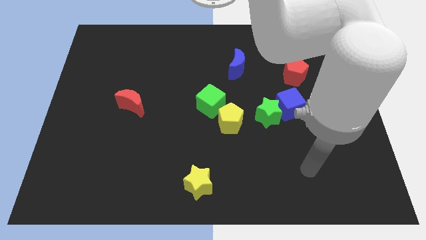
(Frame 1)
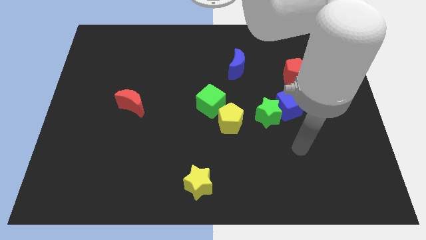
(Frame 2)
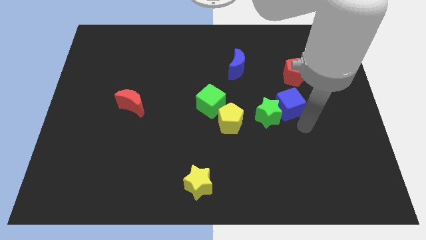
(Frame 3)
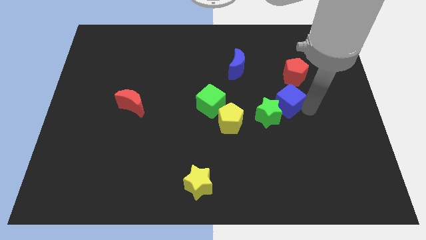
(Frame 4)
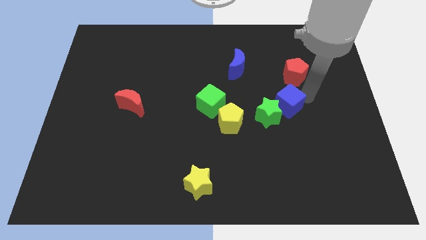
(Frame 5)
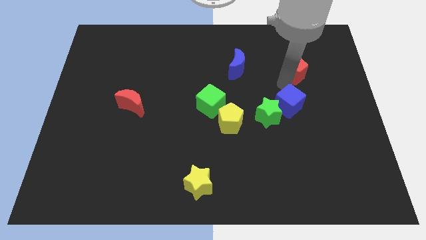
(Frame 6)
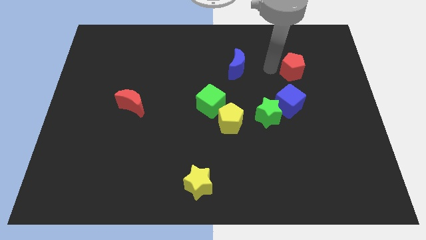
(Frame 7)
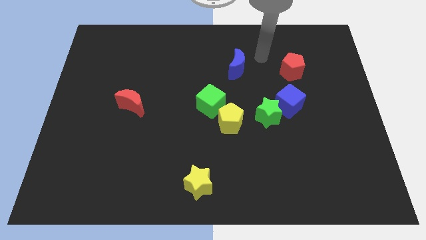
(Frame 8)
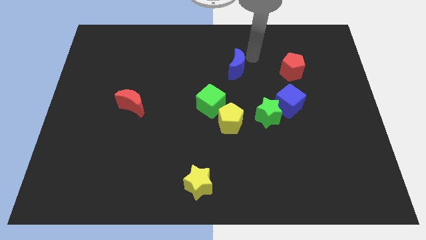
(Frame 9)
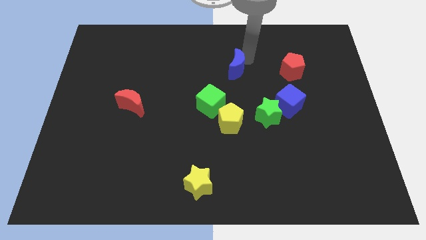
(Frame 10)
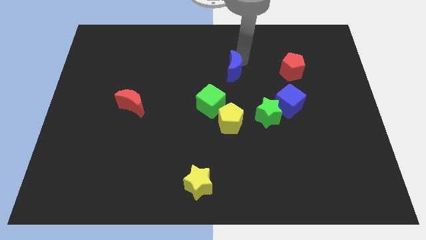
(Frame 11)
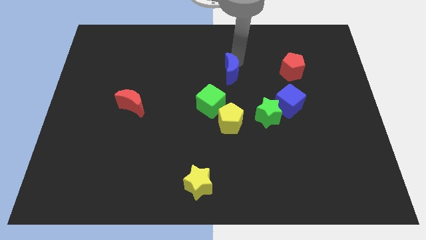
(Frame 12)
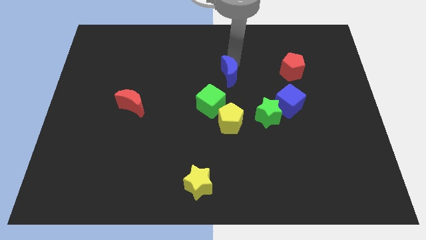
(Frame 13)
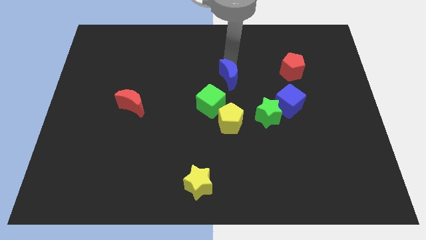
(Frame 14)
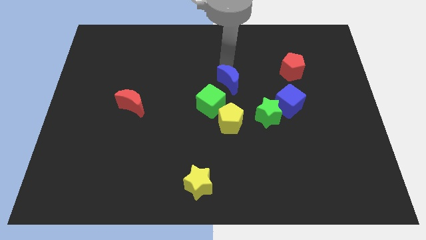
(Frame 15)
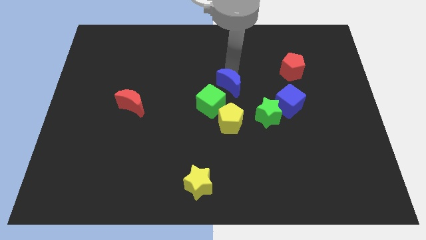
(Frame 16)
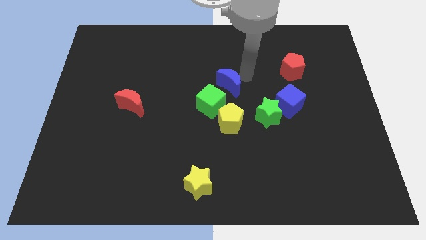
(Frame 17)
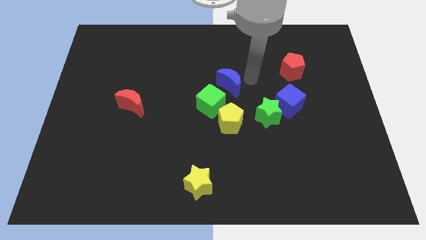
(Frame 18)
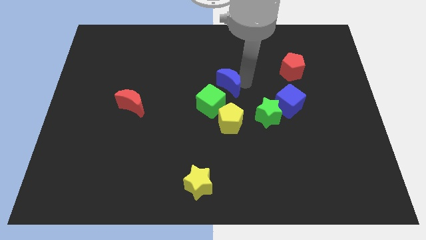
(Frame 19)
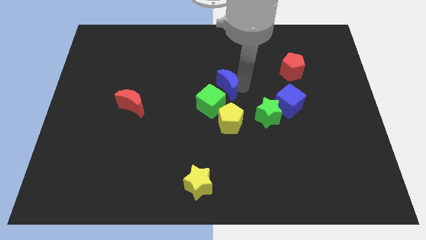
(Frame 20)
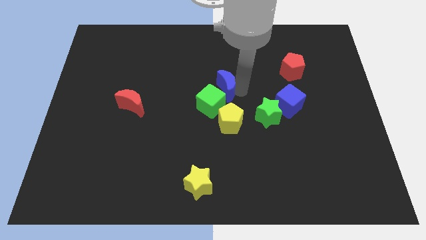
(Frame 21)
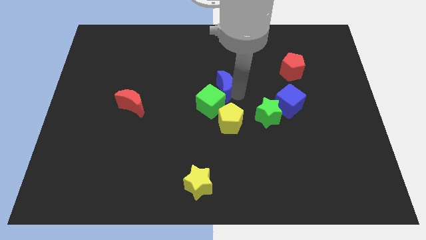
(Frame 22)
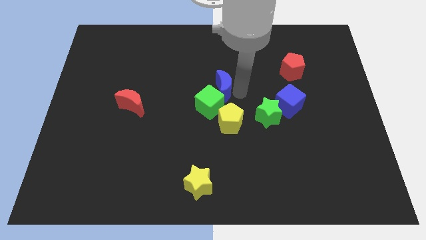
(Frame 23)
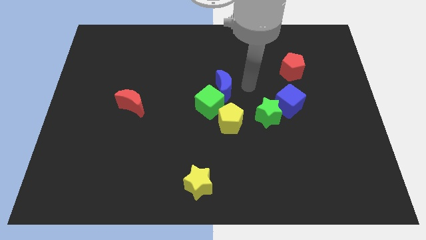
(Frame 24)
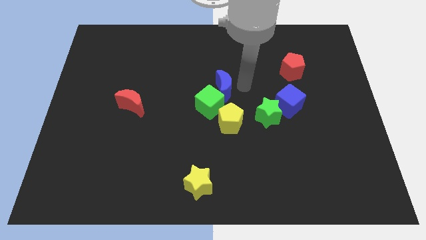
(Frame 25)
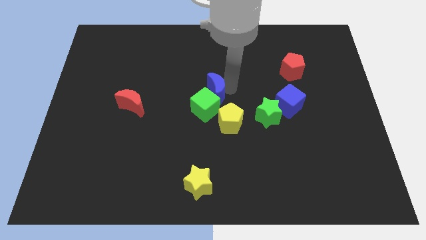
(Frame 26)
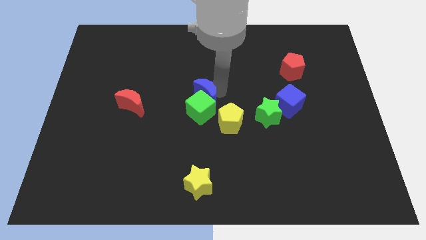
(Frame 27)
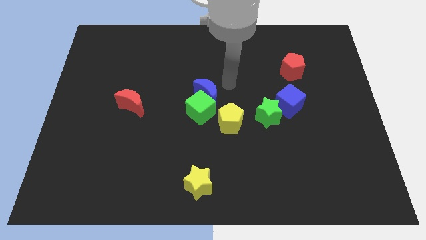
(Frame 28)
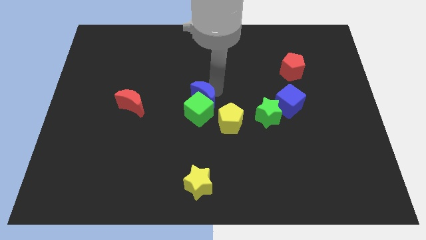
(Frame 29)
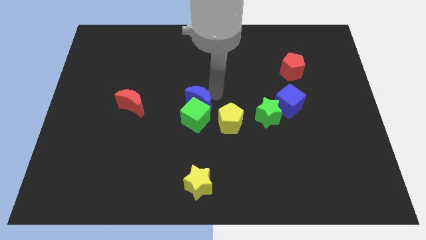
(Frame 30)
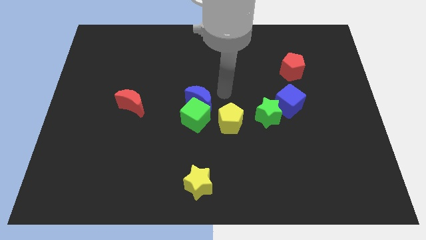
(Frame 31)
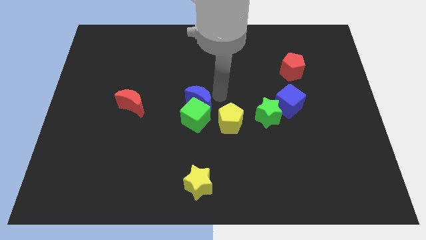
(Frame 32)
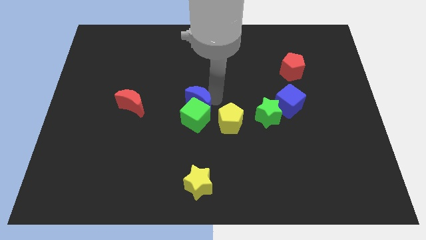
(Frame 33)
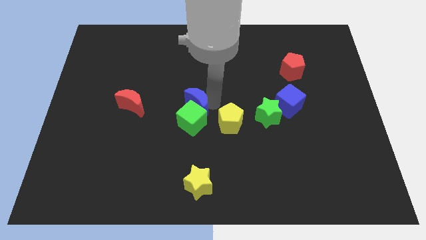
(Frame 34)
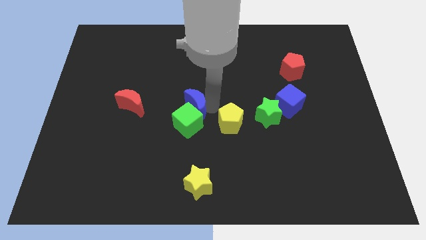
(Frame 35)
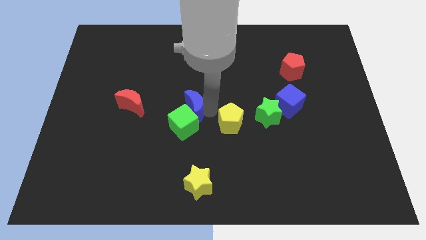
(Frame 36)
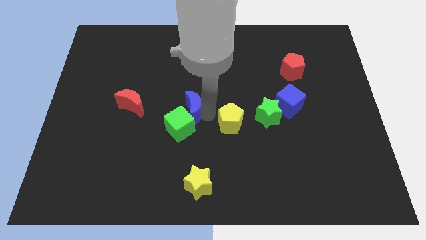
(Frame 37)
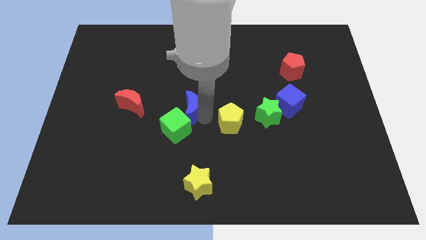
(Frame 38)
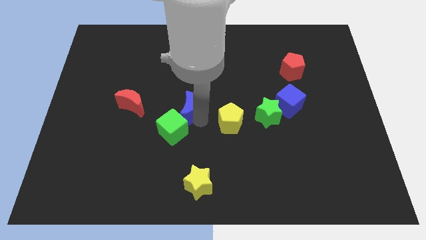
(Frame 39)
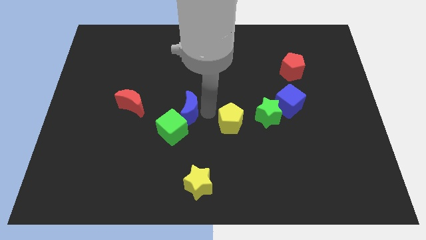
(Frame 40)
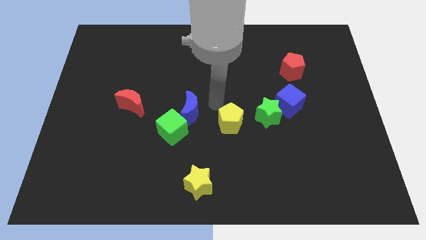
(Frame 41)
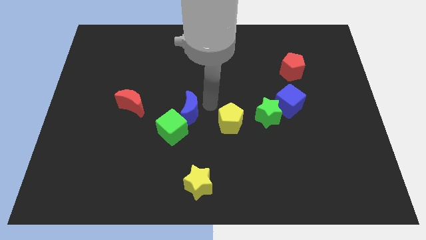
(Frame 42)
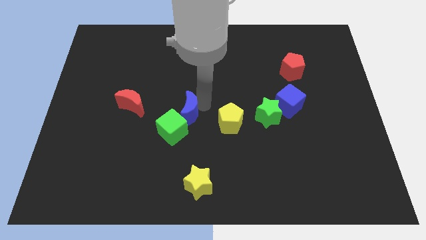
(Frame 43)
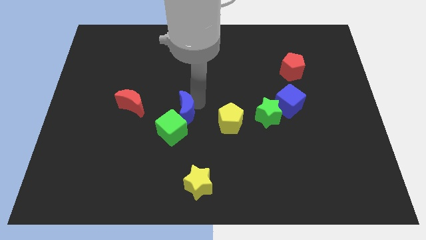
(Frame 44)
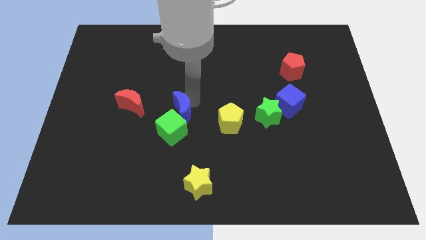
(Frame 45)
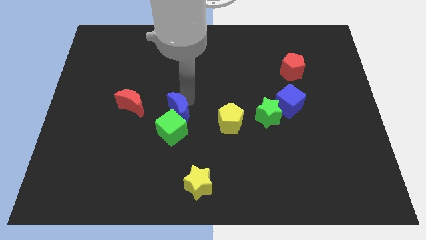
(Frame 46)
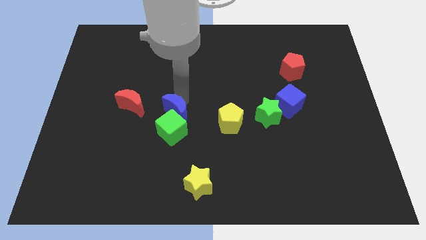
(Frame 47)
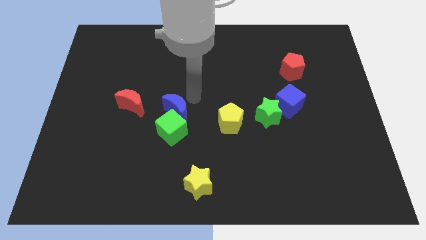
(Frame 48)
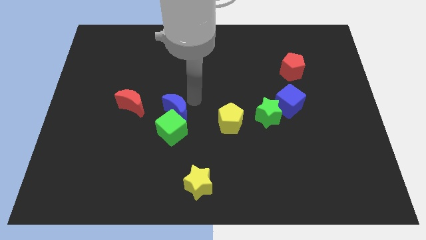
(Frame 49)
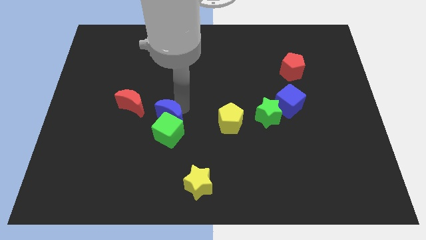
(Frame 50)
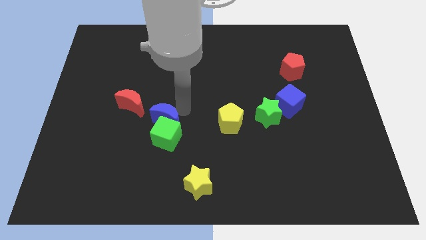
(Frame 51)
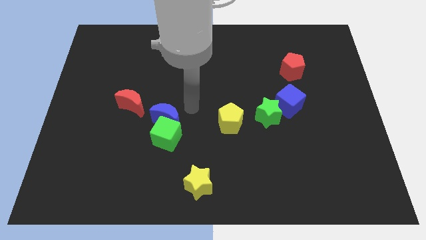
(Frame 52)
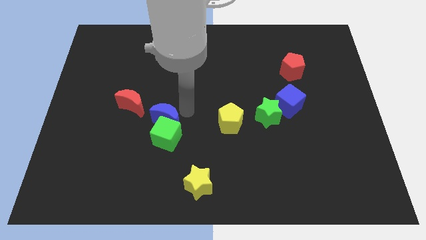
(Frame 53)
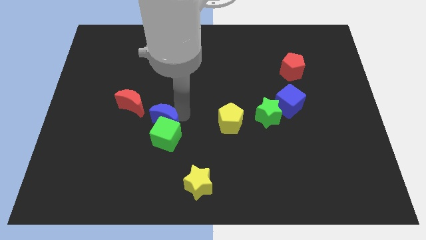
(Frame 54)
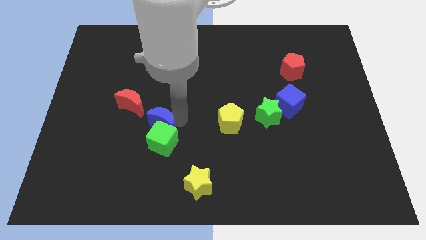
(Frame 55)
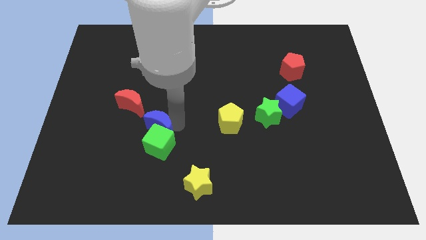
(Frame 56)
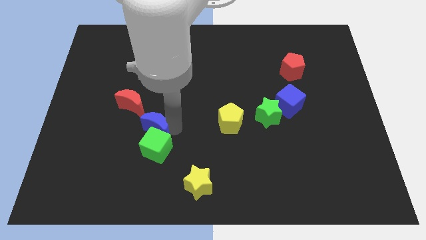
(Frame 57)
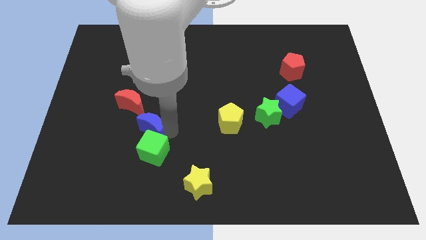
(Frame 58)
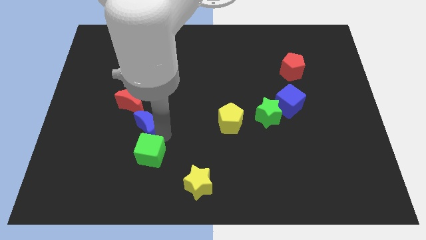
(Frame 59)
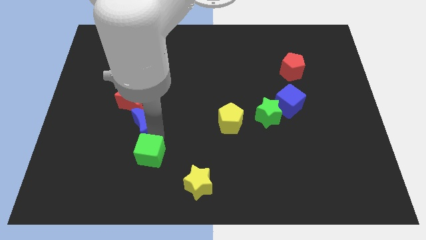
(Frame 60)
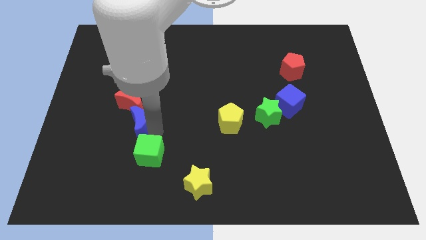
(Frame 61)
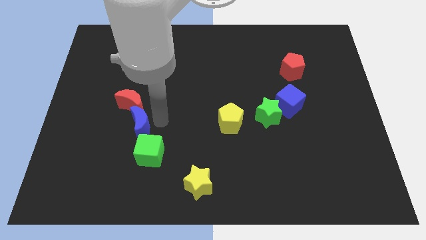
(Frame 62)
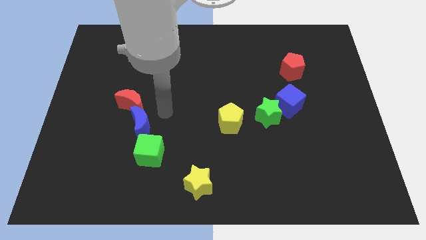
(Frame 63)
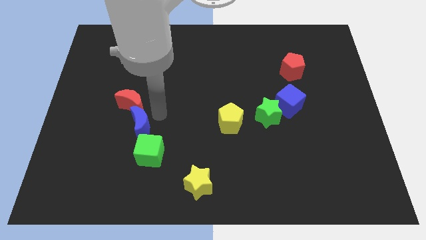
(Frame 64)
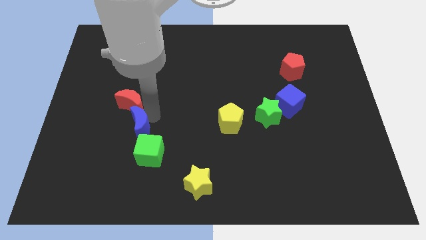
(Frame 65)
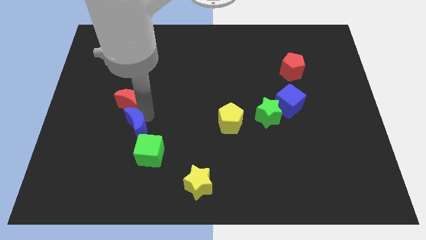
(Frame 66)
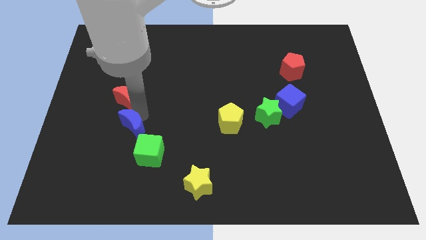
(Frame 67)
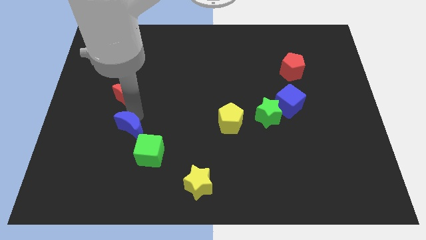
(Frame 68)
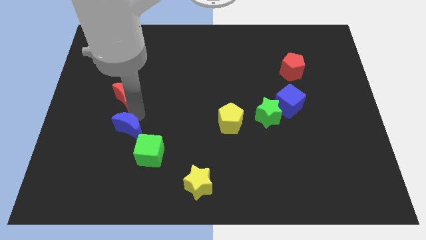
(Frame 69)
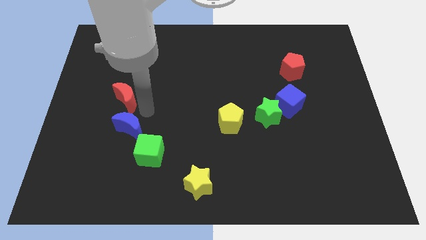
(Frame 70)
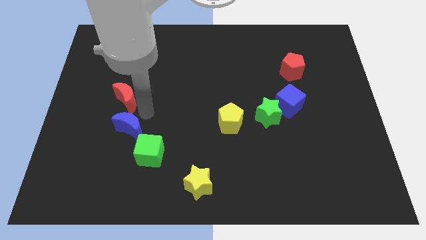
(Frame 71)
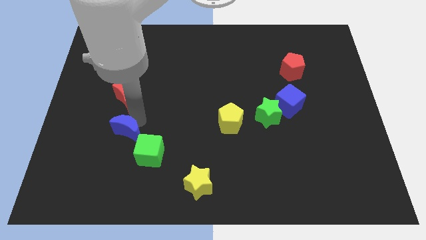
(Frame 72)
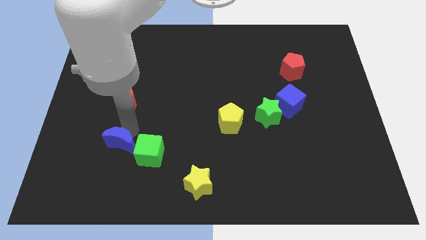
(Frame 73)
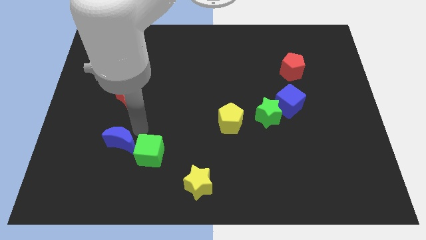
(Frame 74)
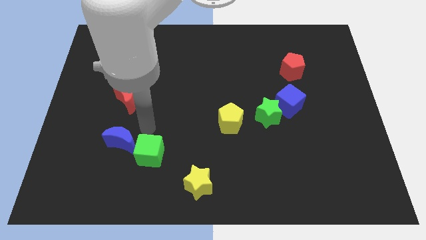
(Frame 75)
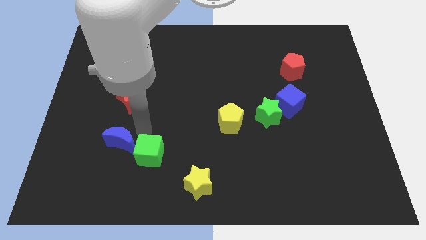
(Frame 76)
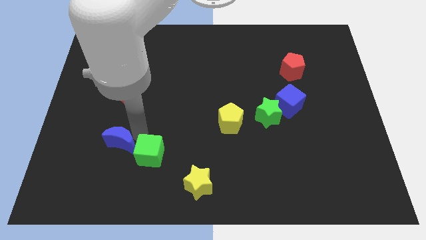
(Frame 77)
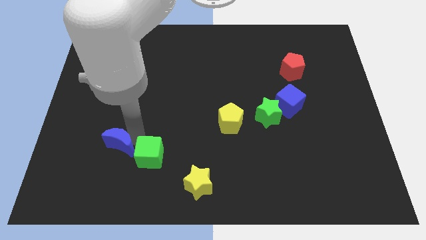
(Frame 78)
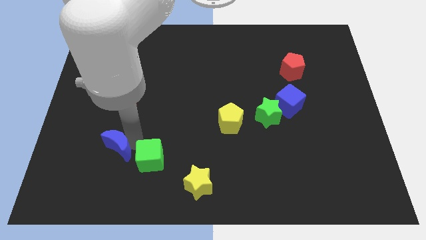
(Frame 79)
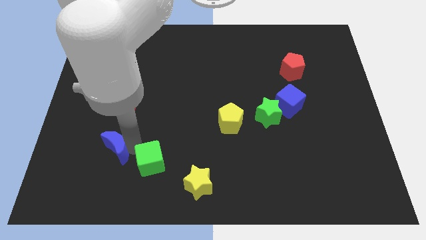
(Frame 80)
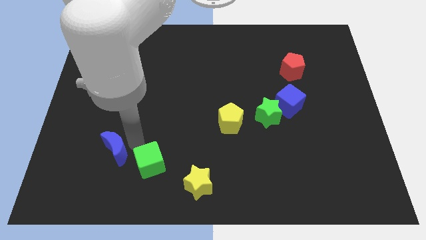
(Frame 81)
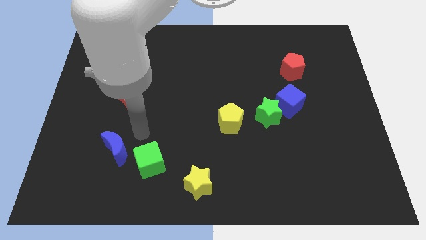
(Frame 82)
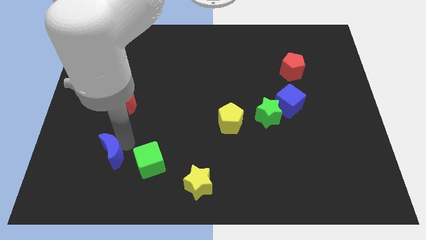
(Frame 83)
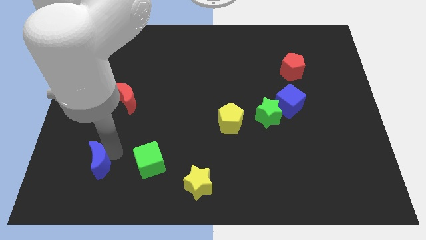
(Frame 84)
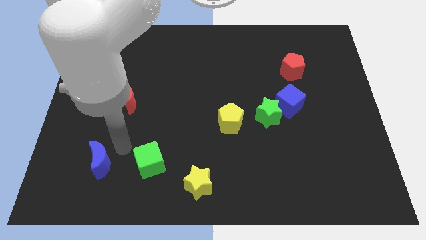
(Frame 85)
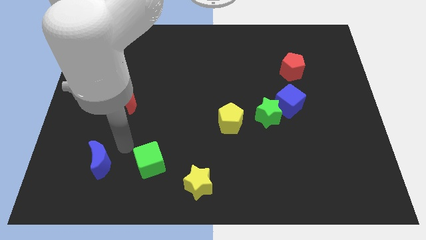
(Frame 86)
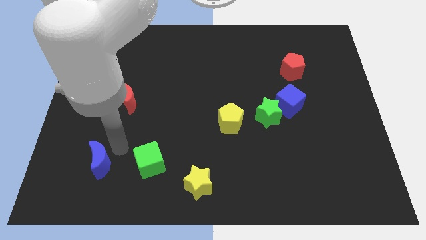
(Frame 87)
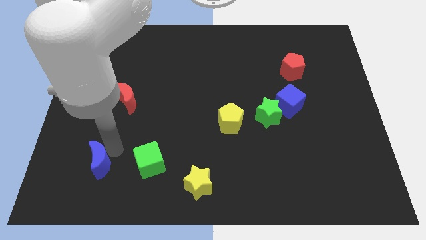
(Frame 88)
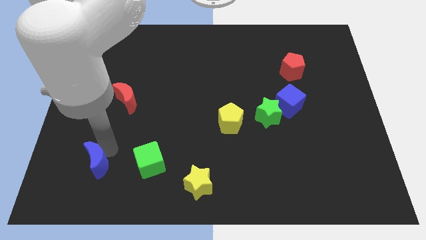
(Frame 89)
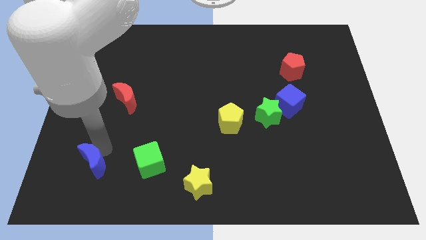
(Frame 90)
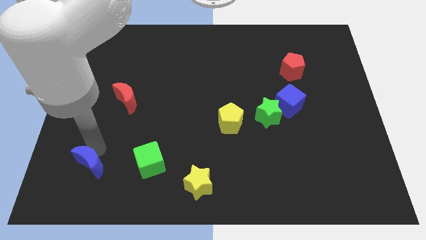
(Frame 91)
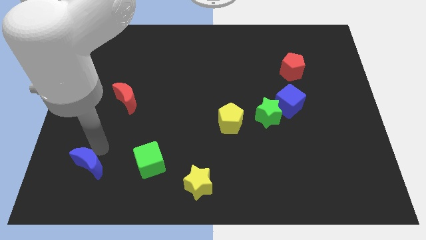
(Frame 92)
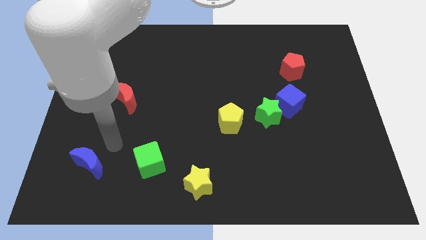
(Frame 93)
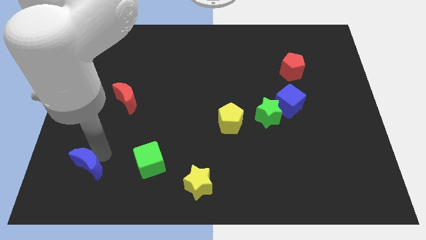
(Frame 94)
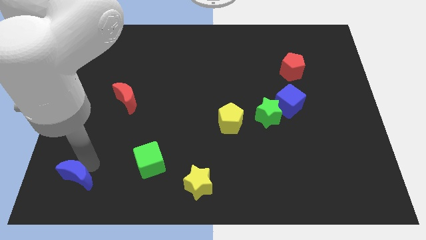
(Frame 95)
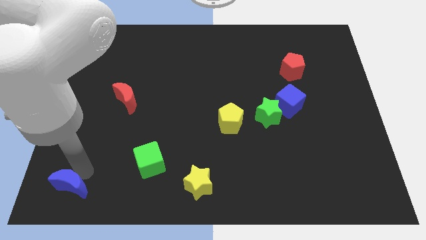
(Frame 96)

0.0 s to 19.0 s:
push the blue moon to the bottom left
